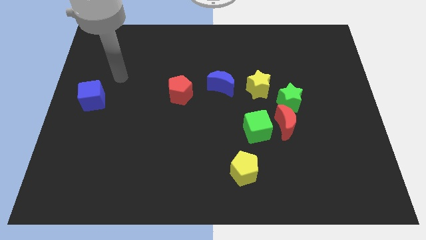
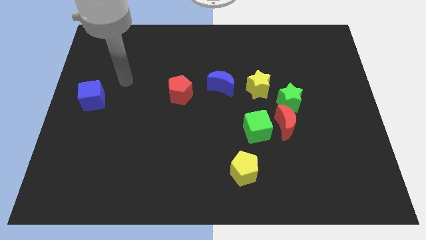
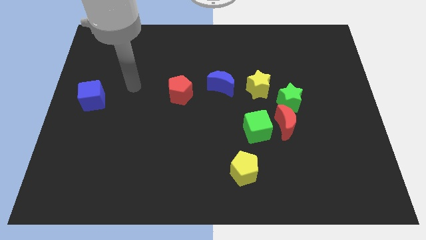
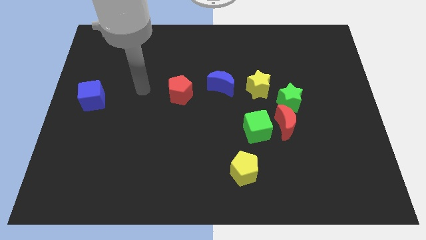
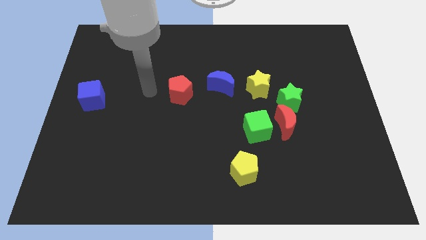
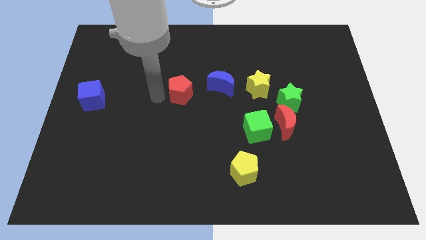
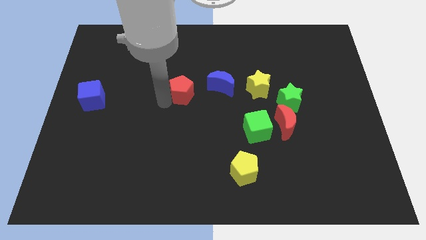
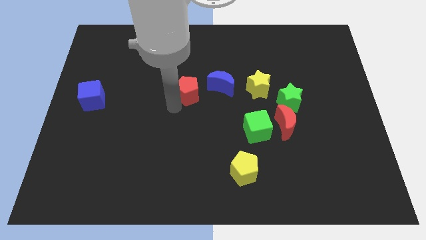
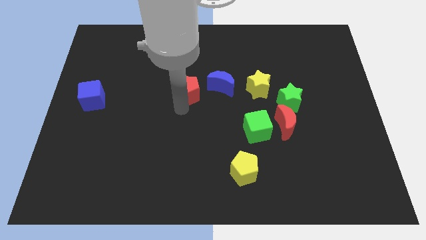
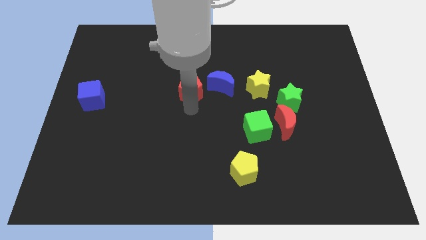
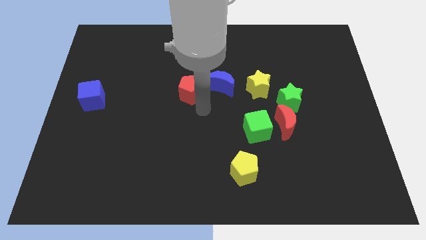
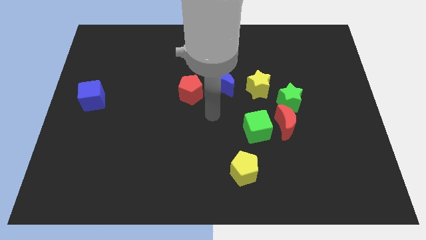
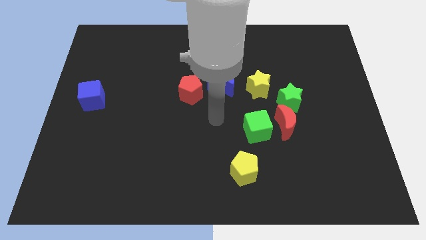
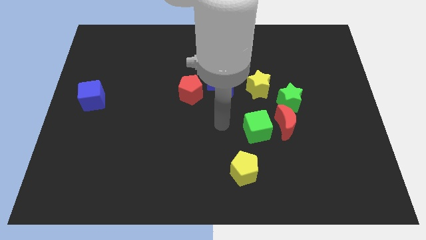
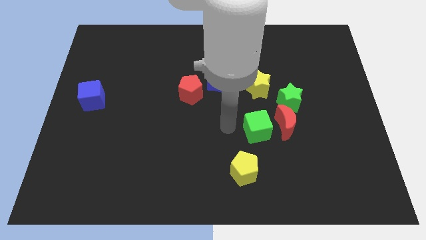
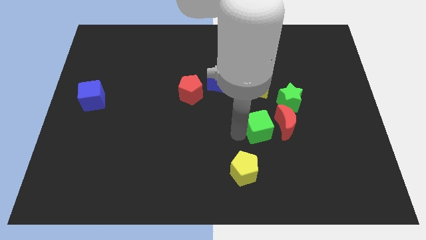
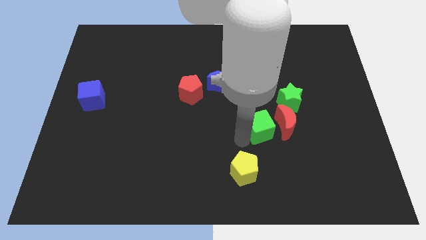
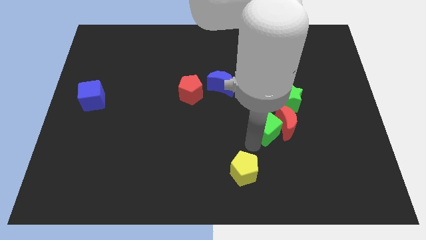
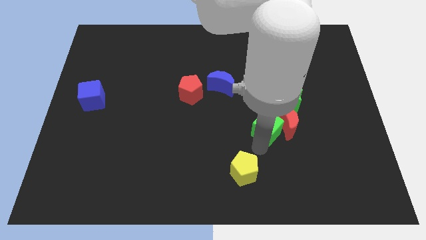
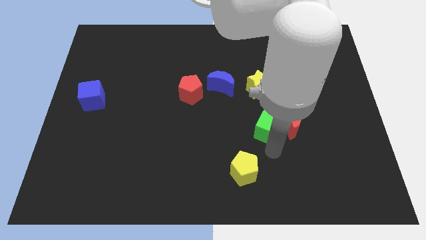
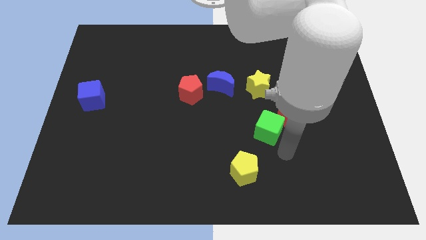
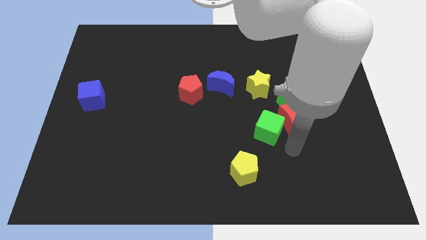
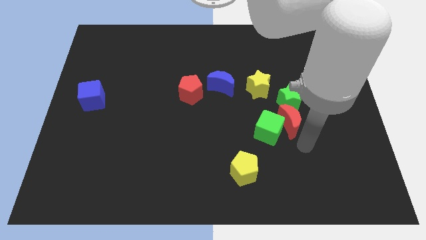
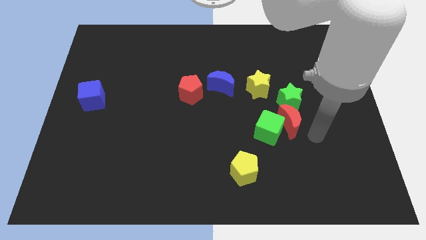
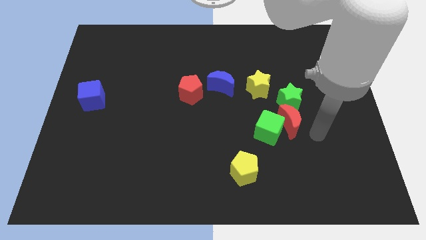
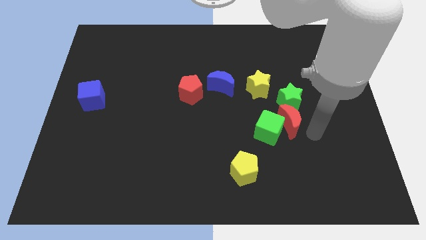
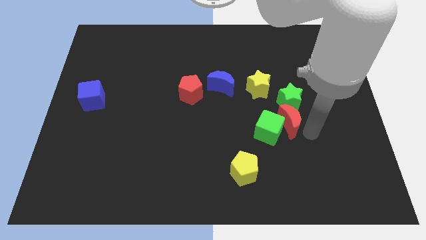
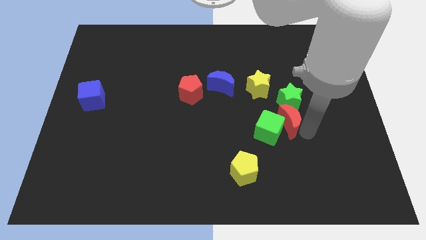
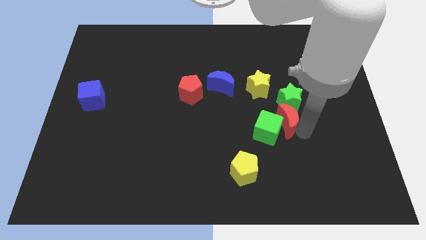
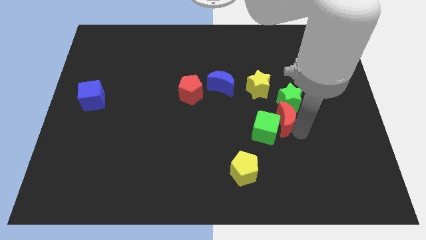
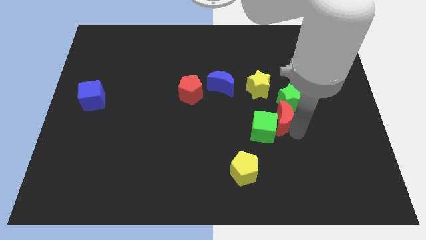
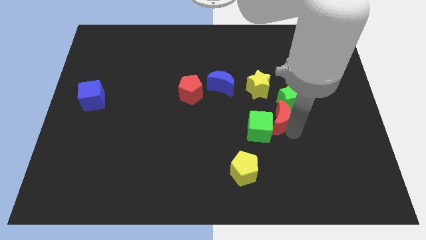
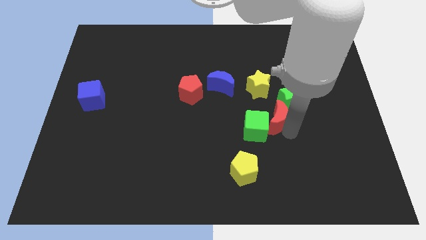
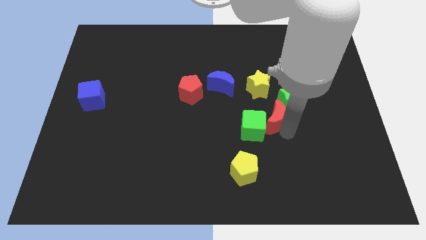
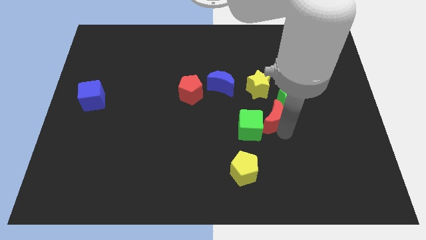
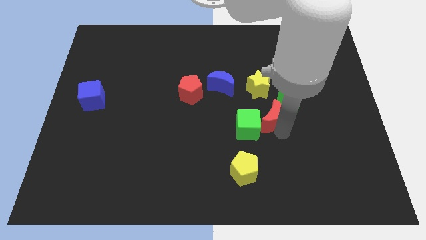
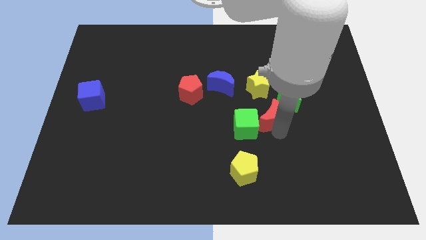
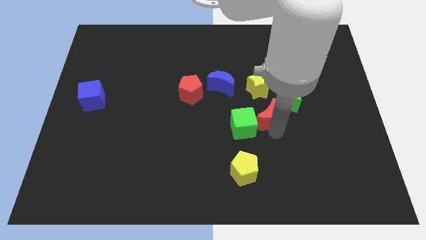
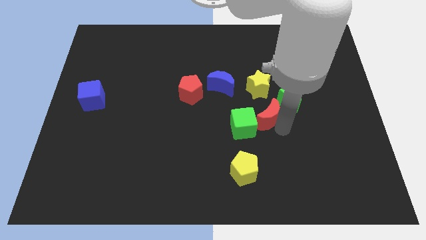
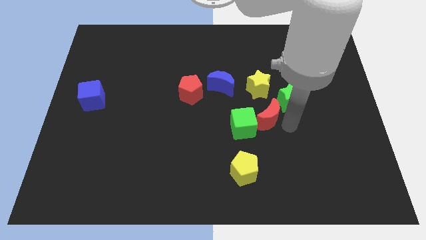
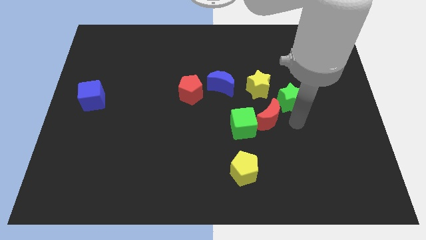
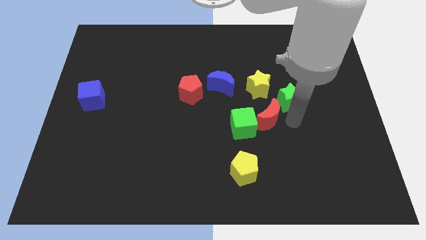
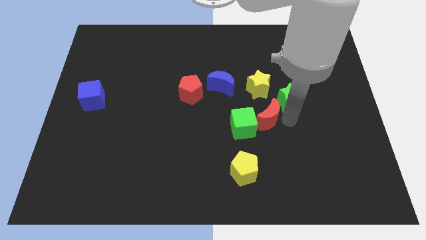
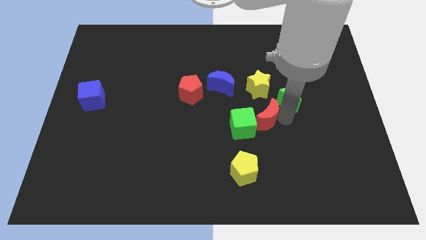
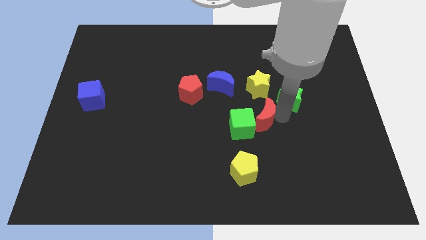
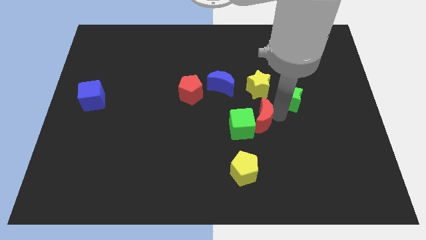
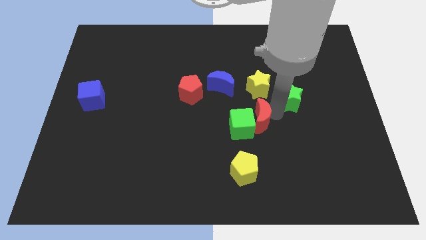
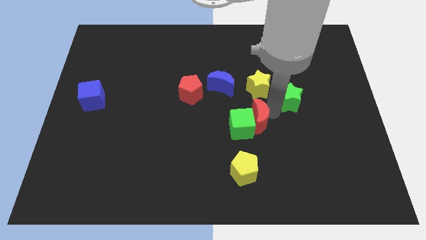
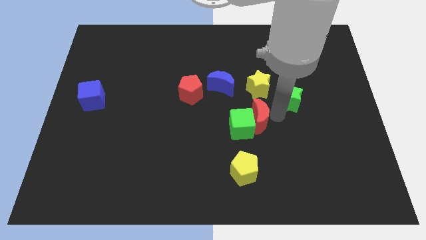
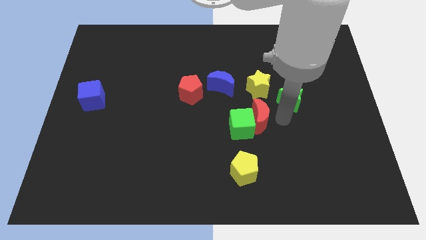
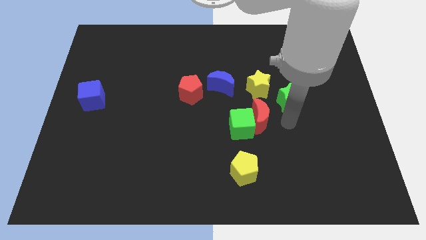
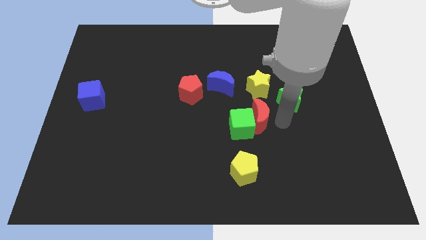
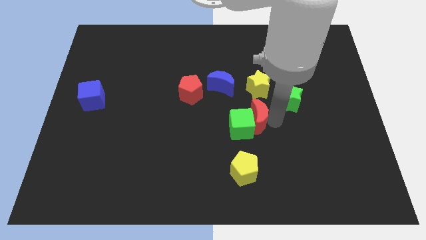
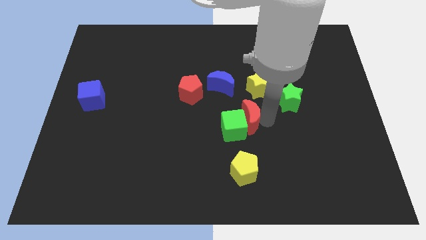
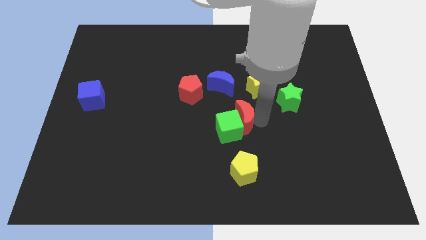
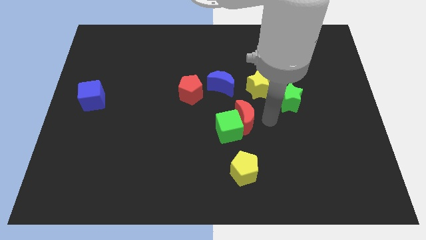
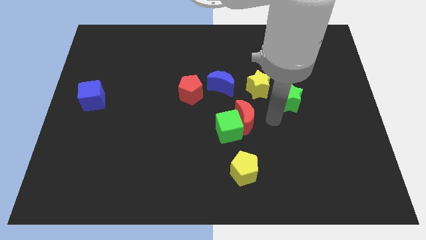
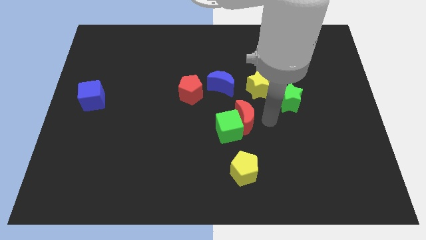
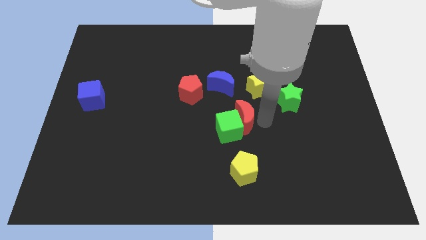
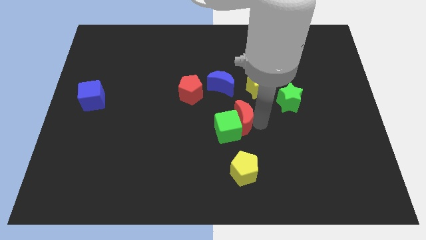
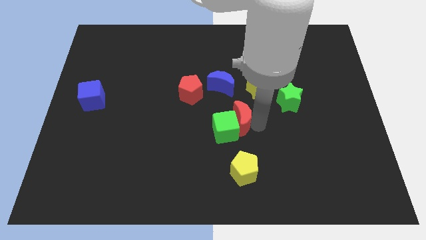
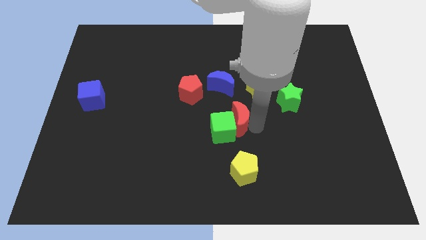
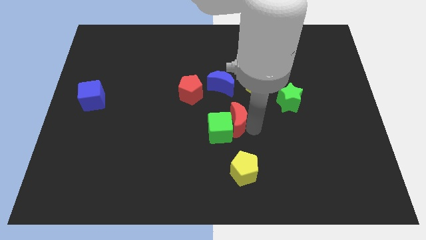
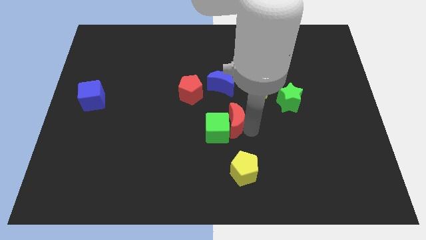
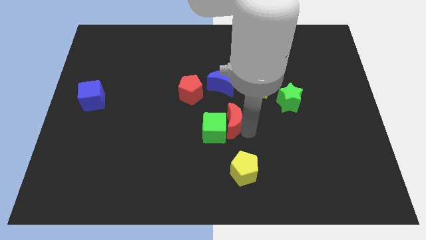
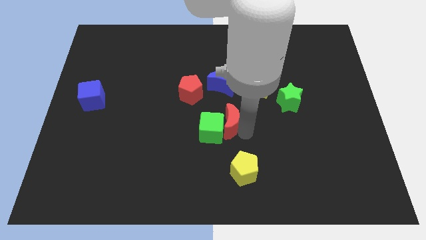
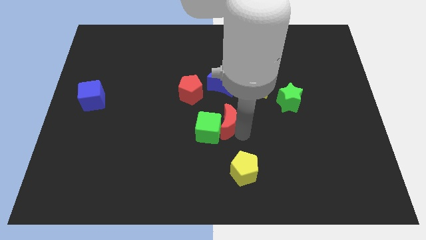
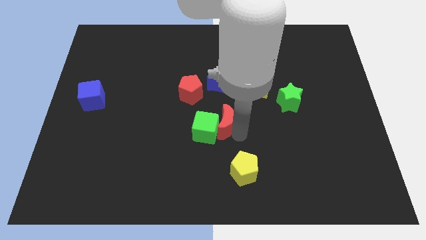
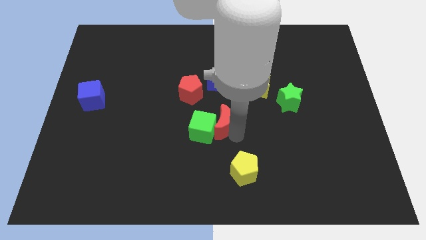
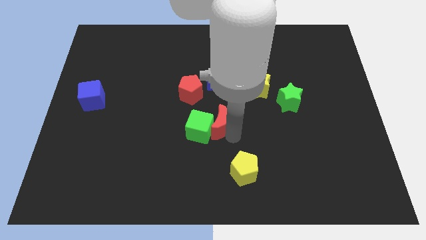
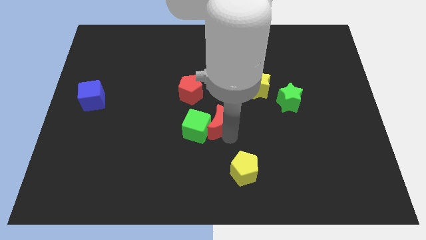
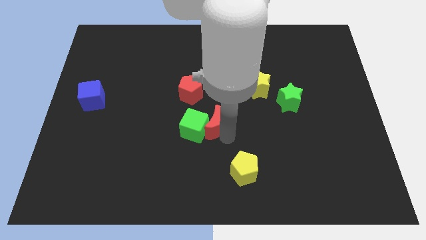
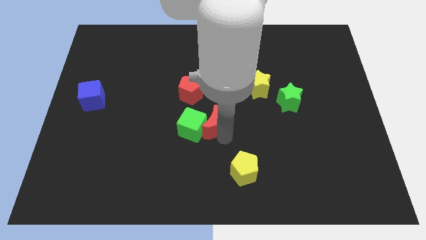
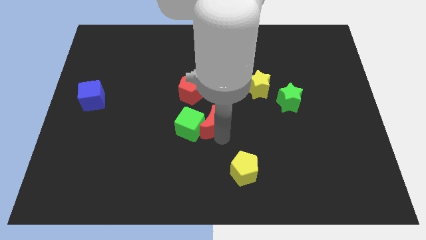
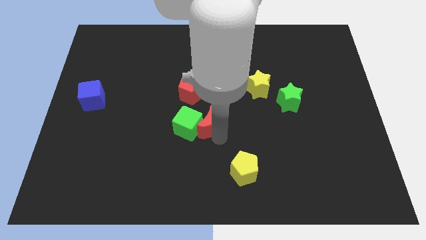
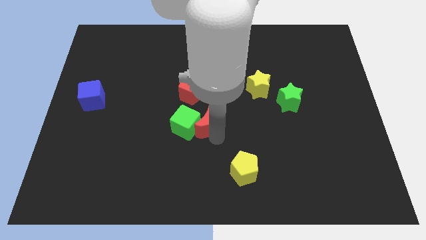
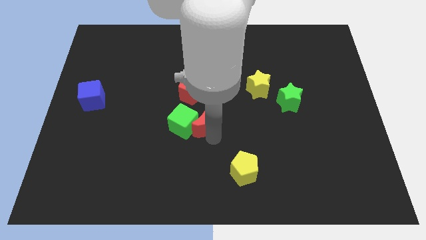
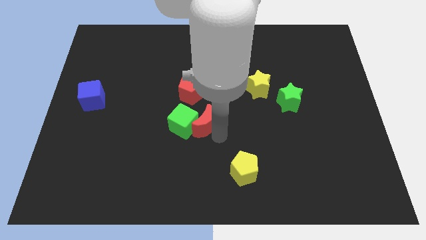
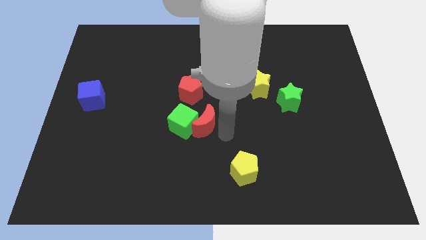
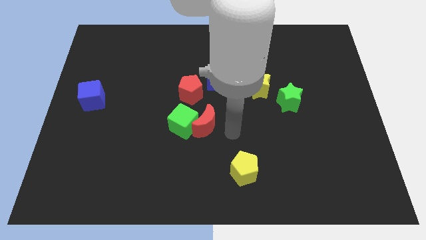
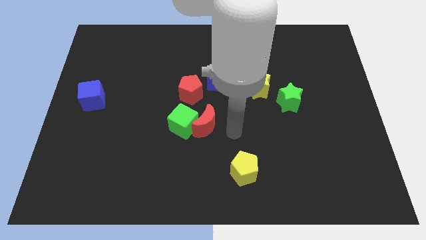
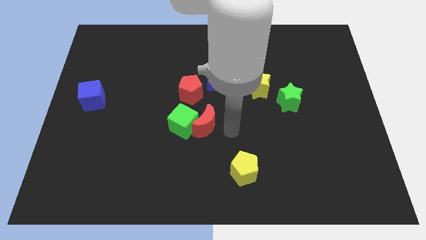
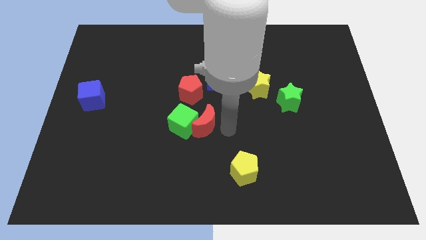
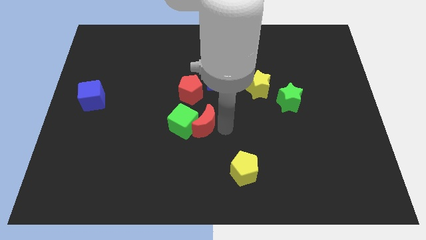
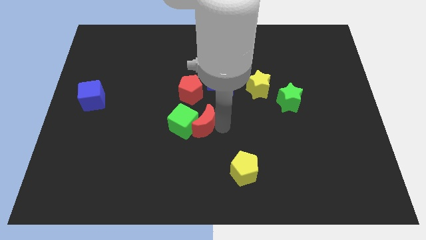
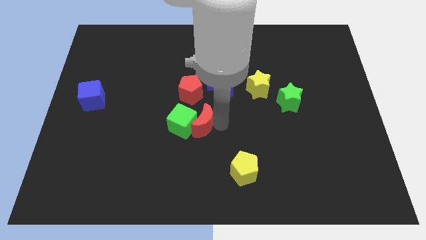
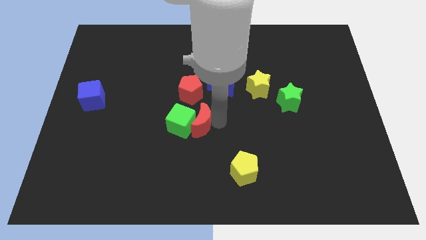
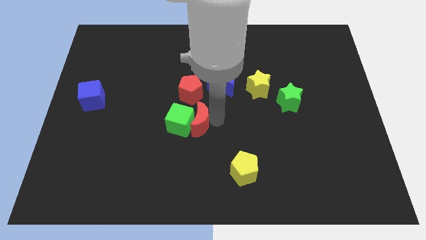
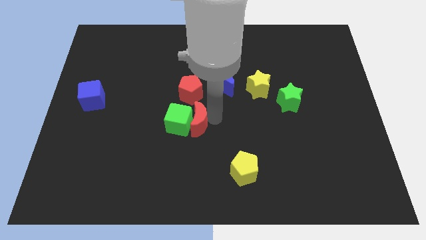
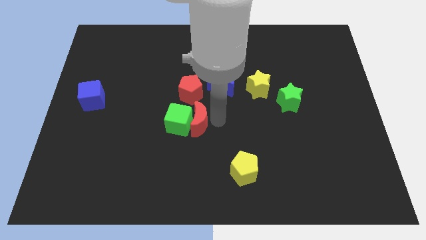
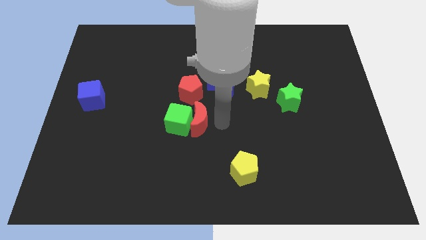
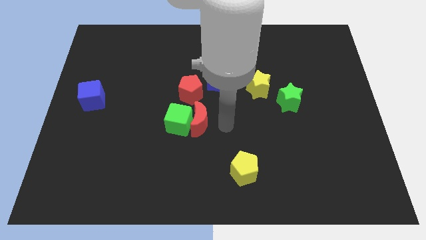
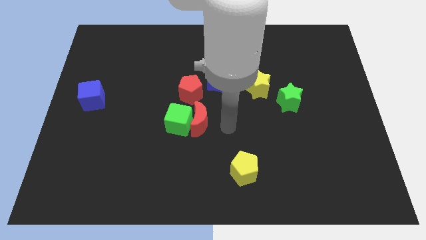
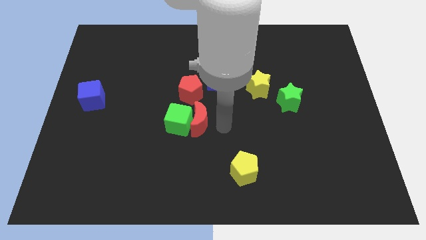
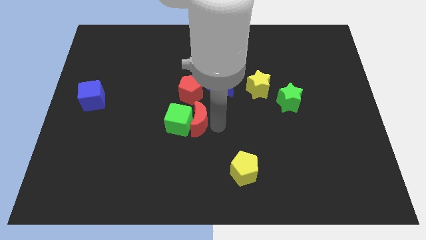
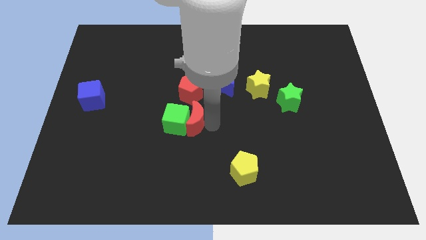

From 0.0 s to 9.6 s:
move the red moon left
